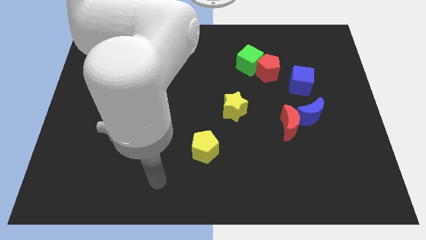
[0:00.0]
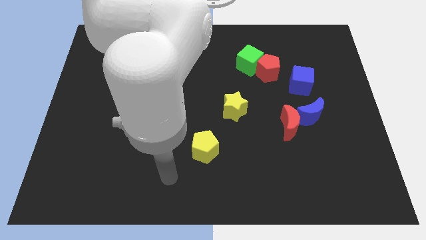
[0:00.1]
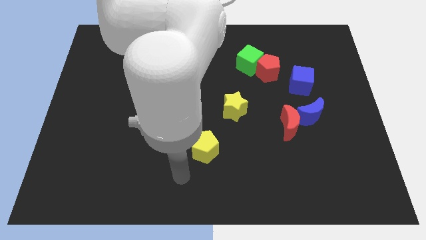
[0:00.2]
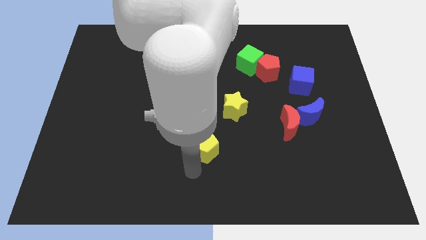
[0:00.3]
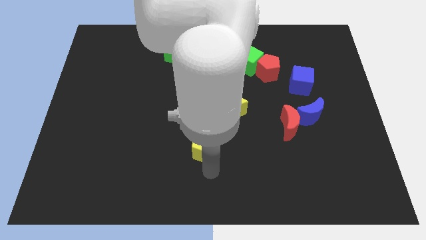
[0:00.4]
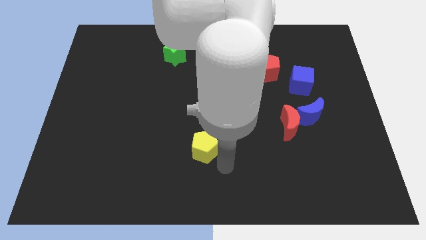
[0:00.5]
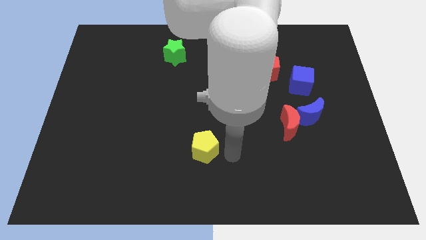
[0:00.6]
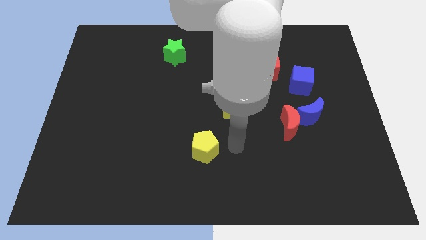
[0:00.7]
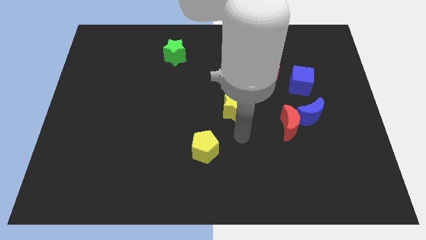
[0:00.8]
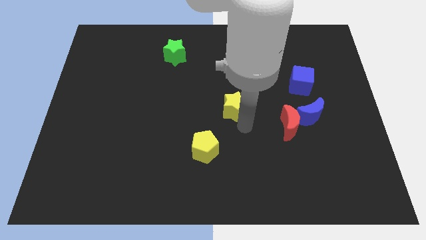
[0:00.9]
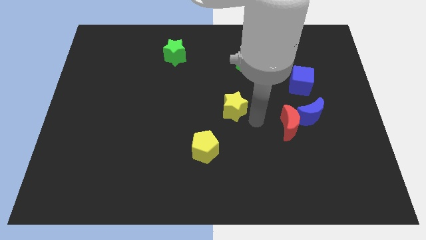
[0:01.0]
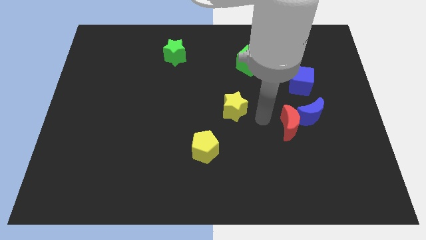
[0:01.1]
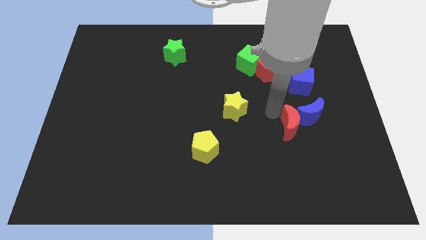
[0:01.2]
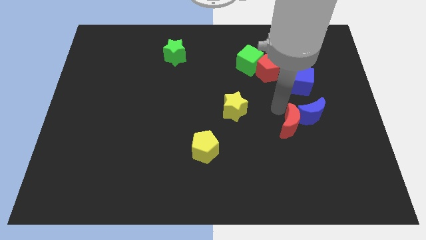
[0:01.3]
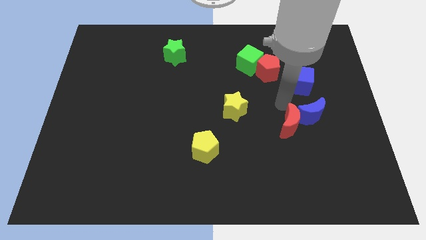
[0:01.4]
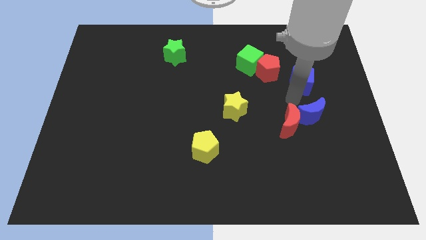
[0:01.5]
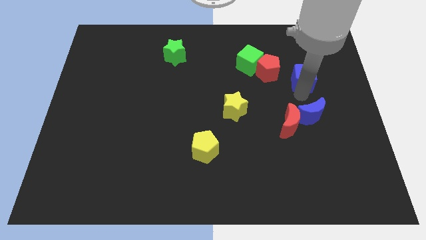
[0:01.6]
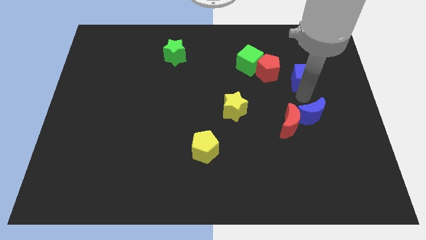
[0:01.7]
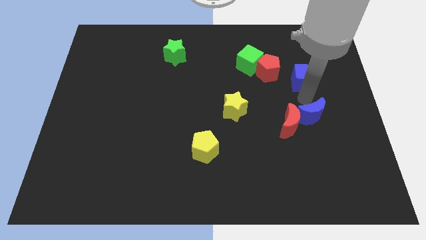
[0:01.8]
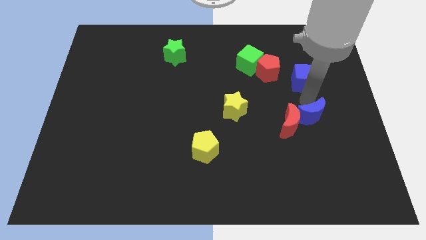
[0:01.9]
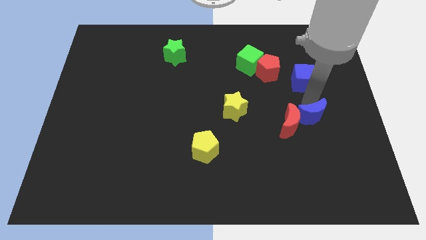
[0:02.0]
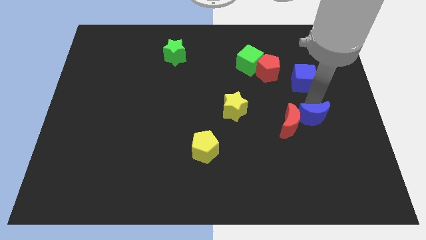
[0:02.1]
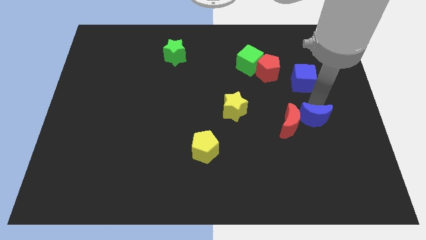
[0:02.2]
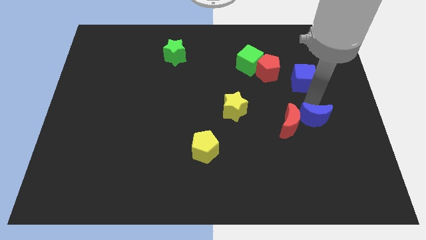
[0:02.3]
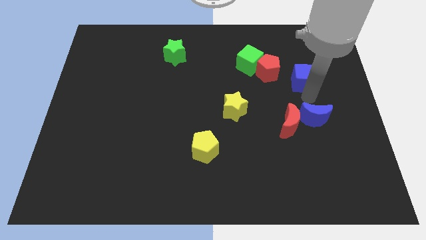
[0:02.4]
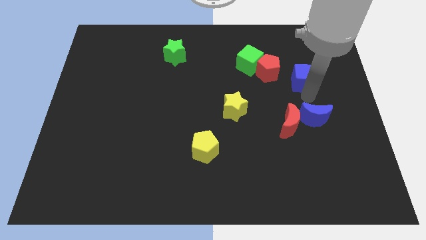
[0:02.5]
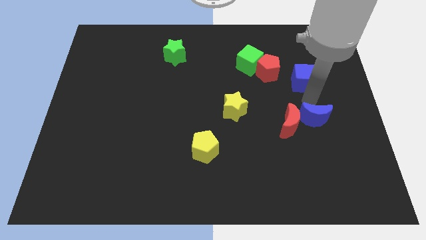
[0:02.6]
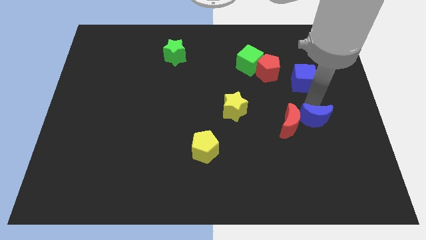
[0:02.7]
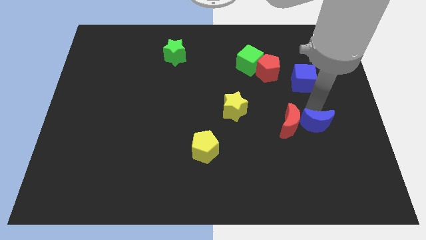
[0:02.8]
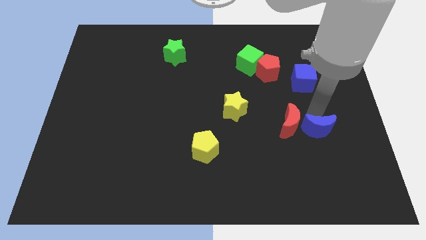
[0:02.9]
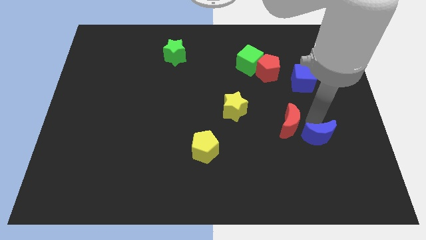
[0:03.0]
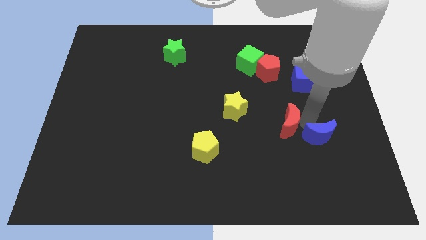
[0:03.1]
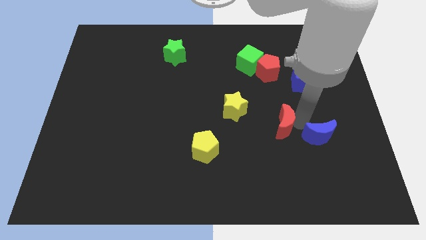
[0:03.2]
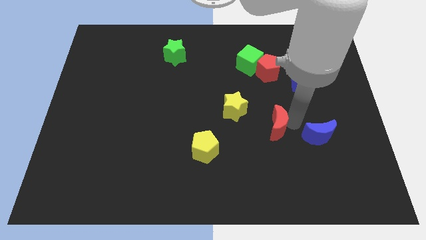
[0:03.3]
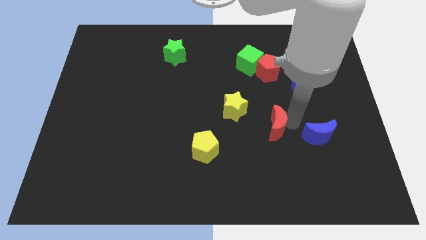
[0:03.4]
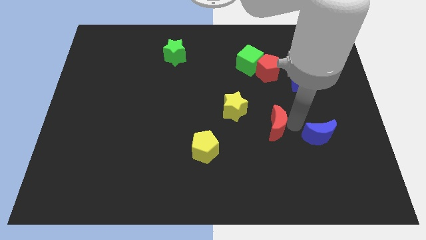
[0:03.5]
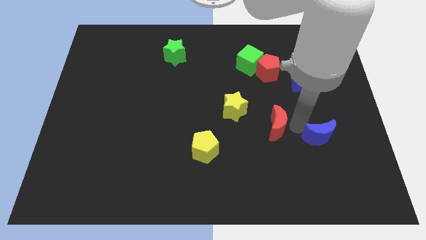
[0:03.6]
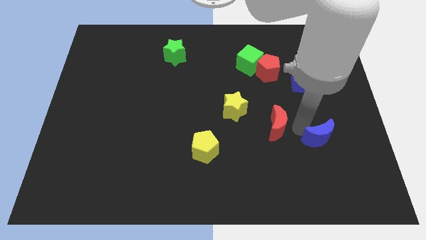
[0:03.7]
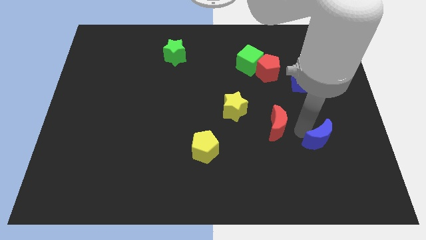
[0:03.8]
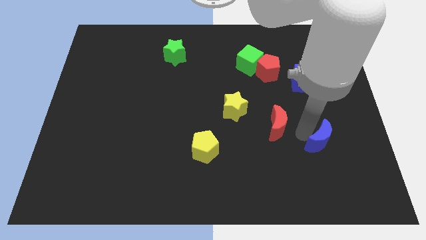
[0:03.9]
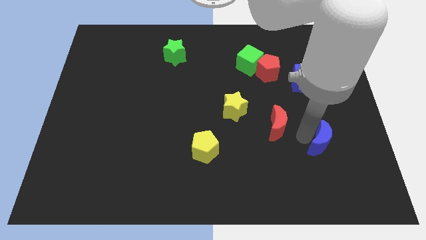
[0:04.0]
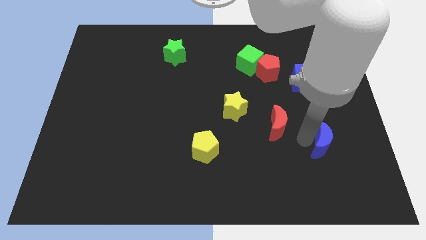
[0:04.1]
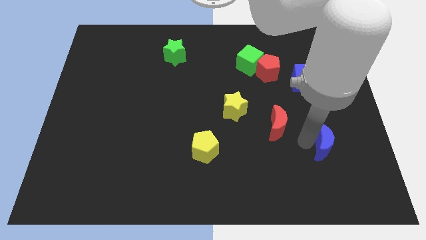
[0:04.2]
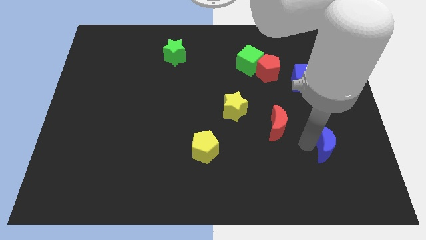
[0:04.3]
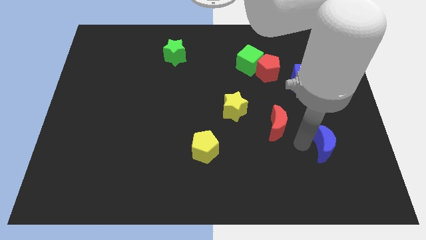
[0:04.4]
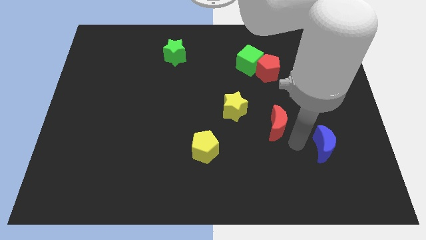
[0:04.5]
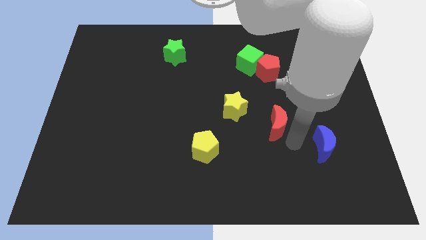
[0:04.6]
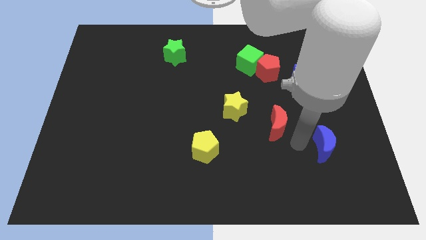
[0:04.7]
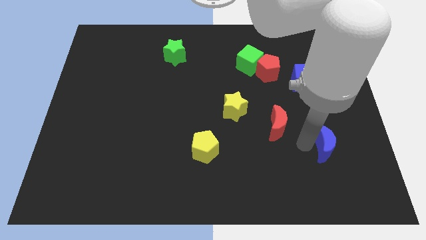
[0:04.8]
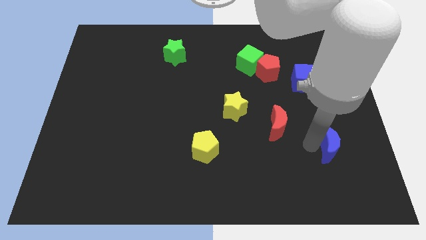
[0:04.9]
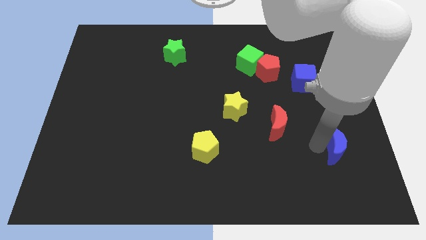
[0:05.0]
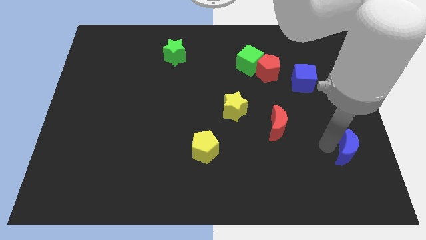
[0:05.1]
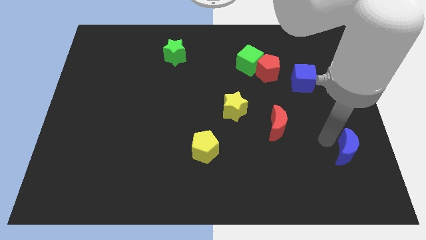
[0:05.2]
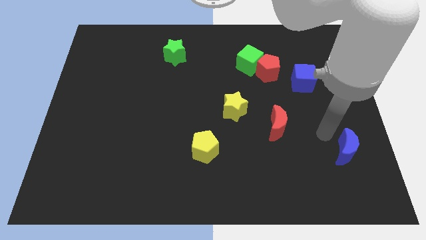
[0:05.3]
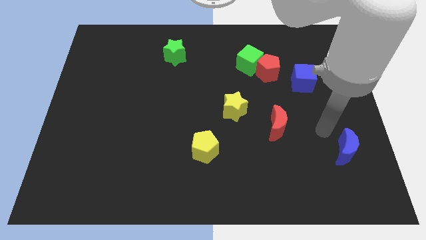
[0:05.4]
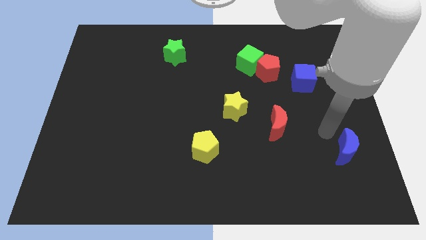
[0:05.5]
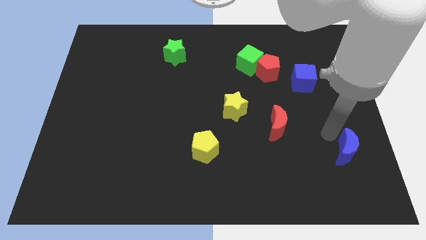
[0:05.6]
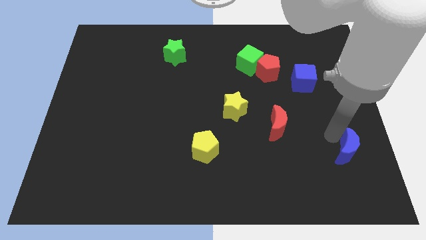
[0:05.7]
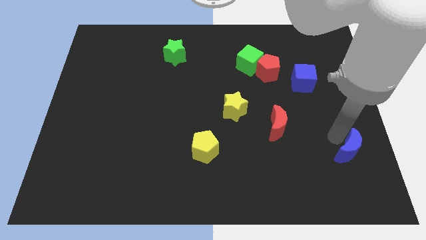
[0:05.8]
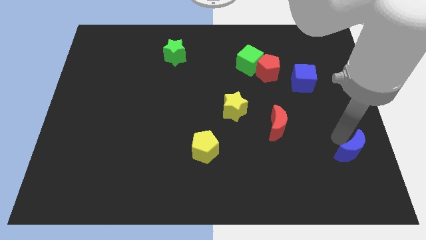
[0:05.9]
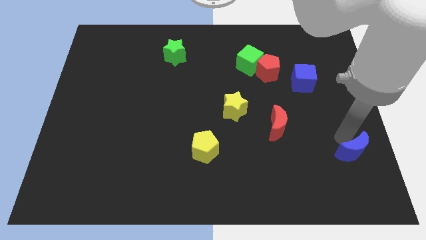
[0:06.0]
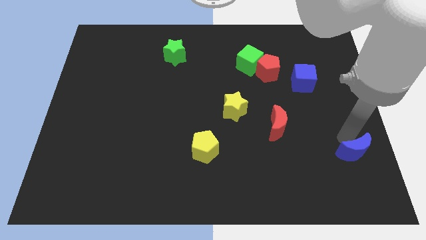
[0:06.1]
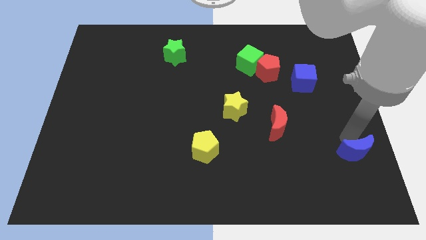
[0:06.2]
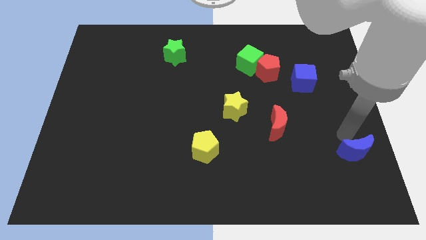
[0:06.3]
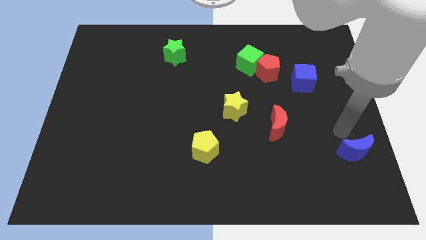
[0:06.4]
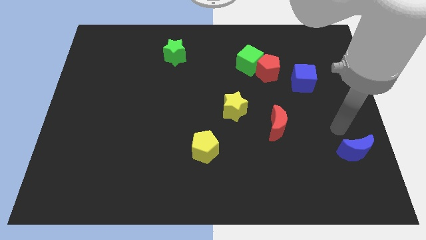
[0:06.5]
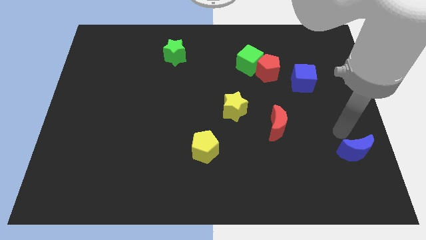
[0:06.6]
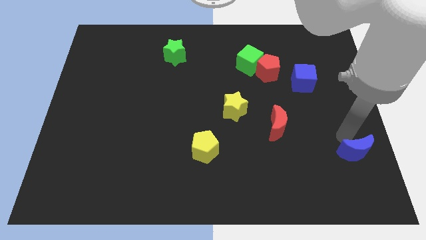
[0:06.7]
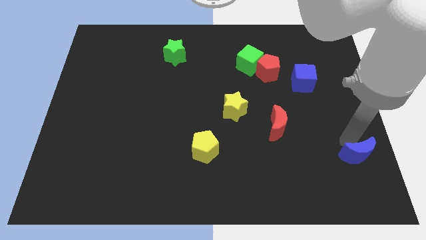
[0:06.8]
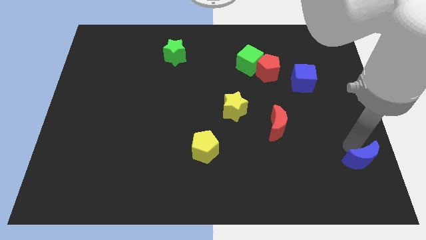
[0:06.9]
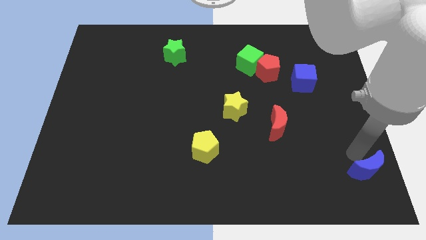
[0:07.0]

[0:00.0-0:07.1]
move the blue moon to the bottom right
